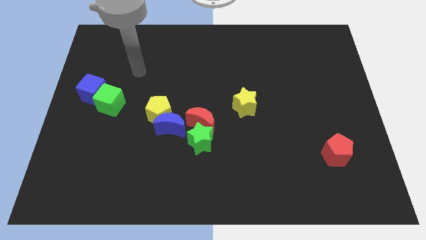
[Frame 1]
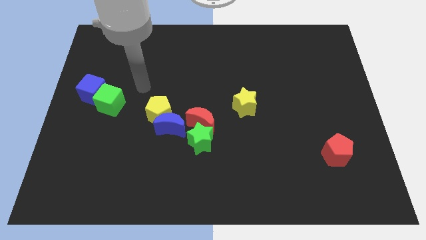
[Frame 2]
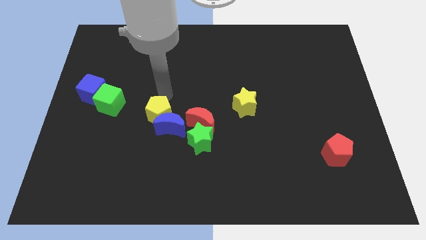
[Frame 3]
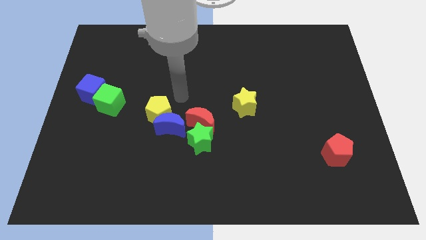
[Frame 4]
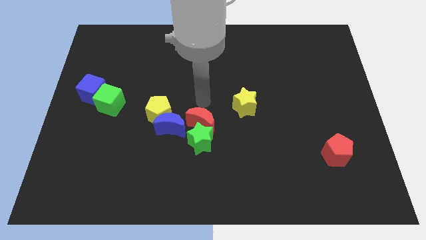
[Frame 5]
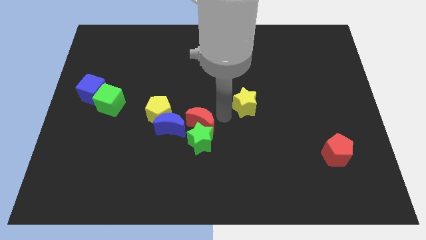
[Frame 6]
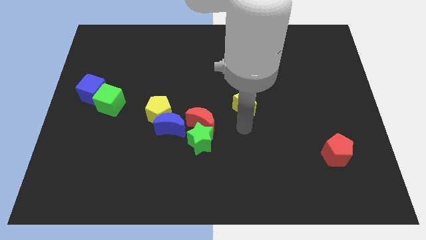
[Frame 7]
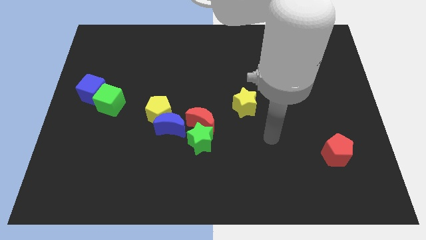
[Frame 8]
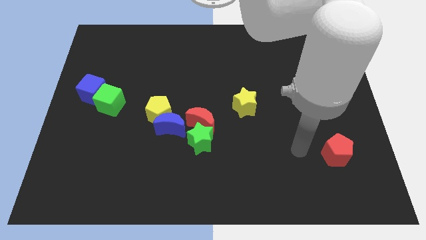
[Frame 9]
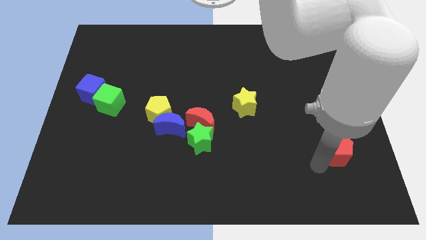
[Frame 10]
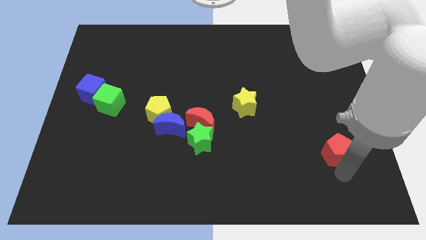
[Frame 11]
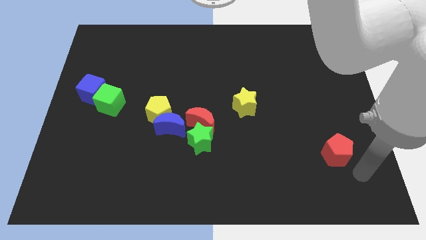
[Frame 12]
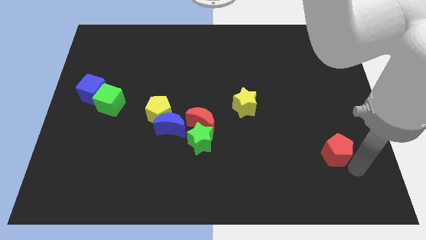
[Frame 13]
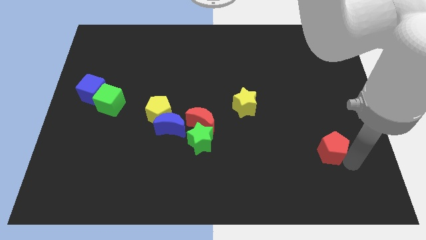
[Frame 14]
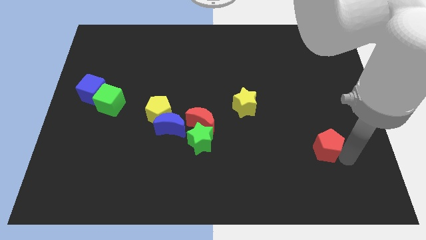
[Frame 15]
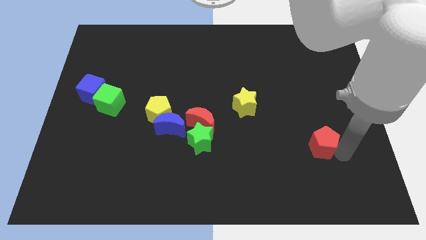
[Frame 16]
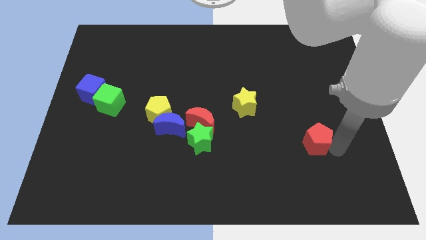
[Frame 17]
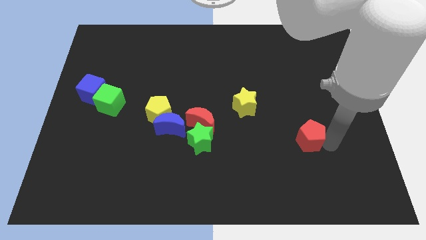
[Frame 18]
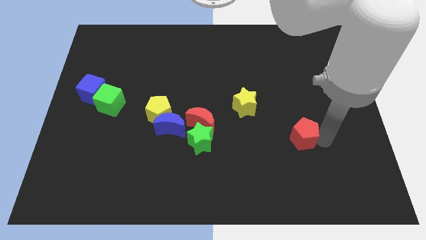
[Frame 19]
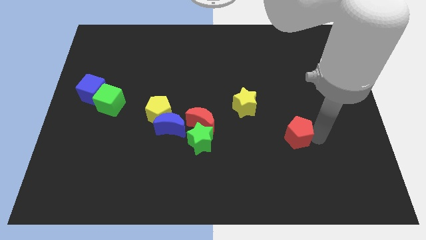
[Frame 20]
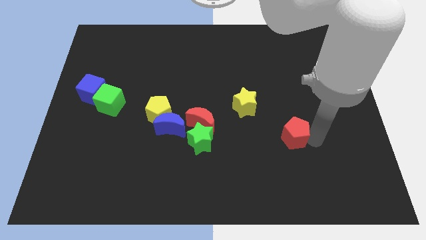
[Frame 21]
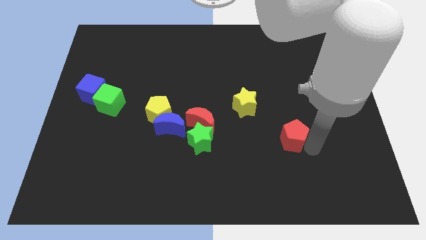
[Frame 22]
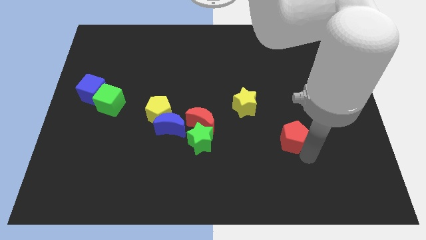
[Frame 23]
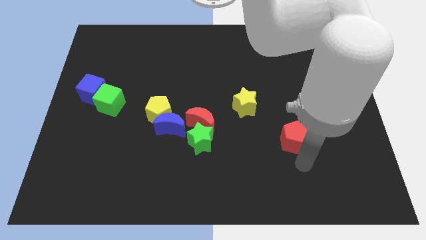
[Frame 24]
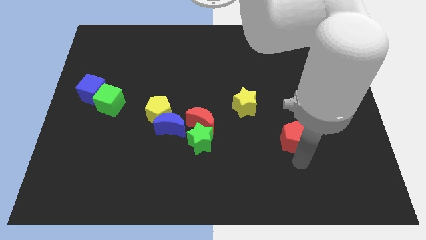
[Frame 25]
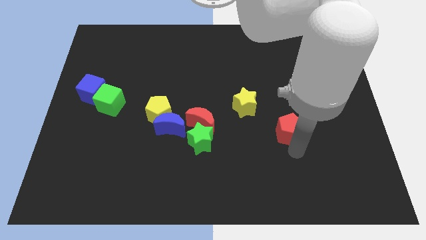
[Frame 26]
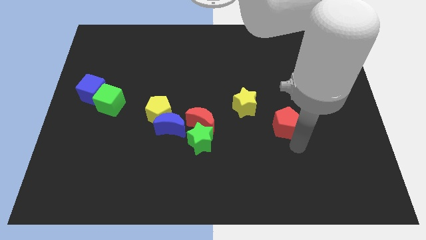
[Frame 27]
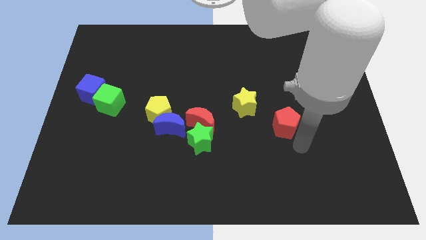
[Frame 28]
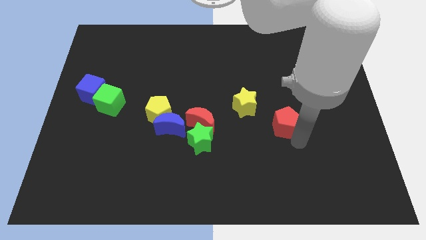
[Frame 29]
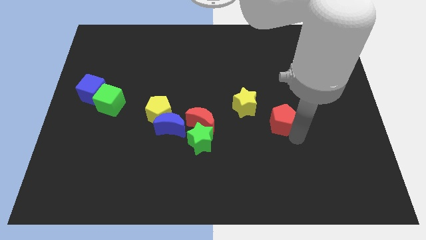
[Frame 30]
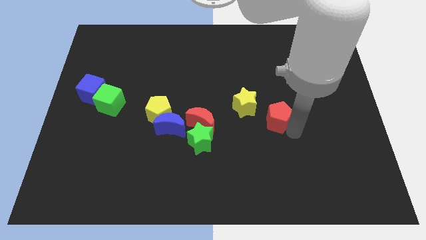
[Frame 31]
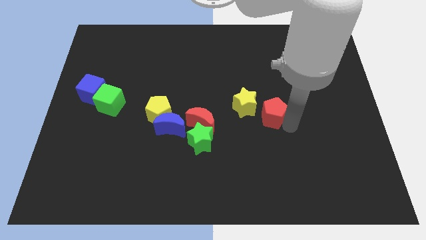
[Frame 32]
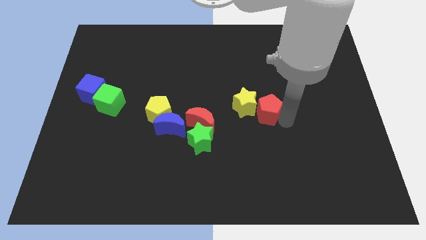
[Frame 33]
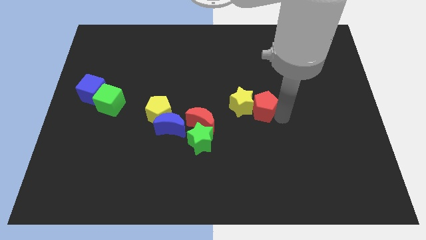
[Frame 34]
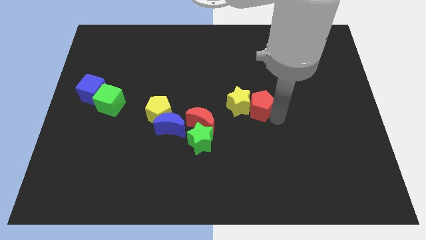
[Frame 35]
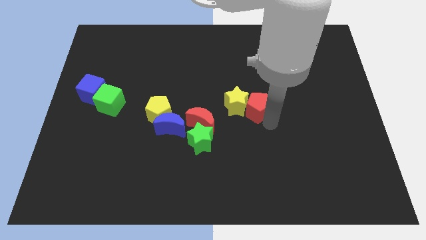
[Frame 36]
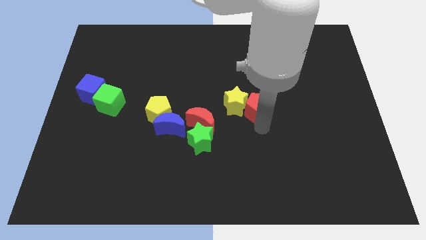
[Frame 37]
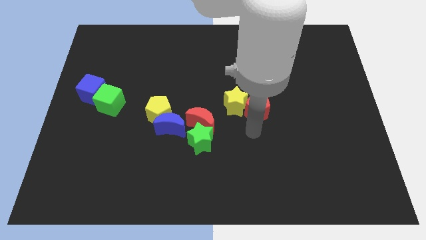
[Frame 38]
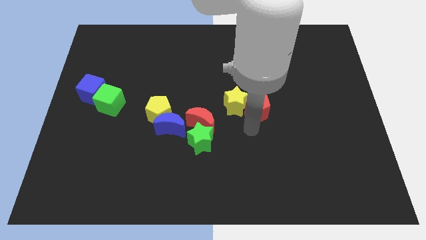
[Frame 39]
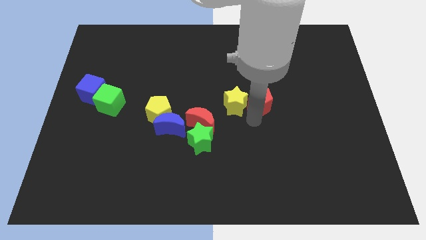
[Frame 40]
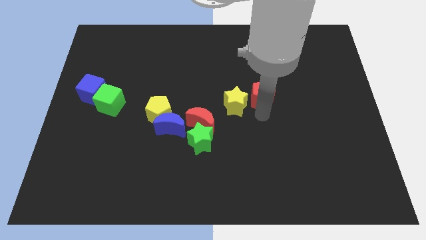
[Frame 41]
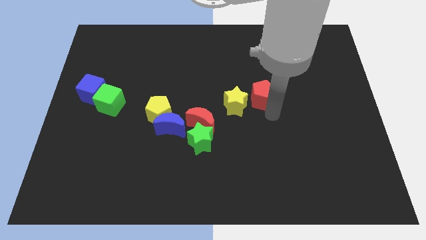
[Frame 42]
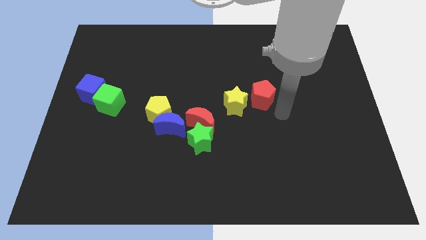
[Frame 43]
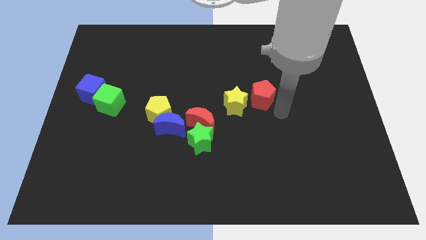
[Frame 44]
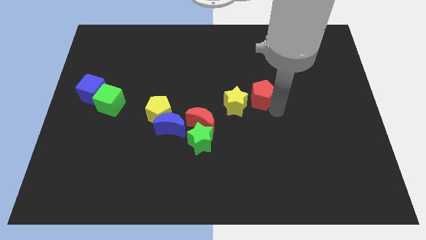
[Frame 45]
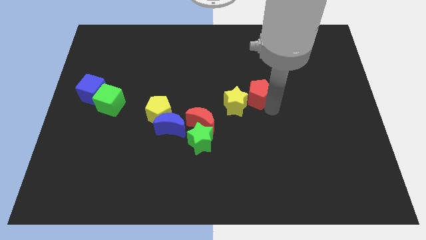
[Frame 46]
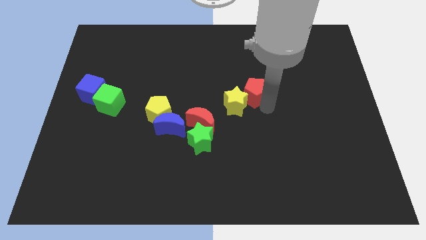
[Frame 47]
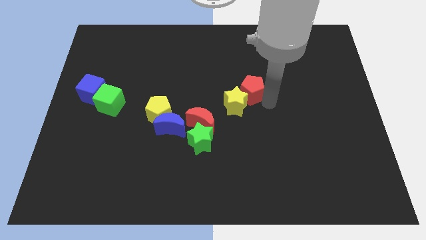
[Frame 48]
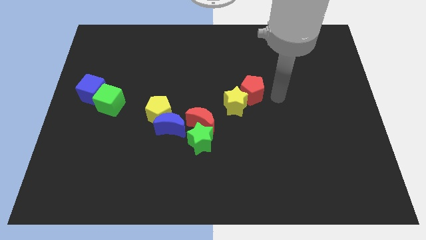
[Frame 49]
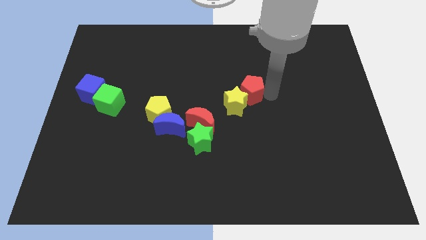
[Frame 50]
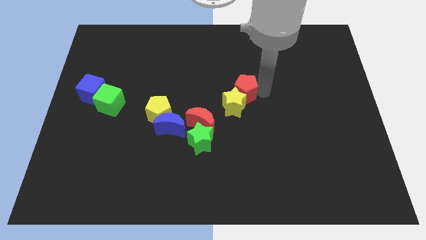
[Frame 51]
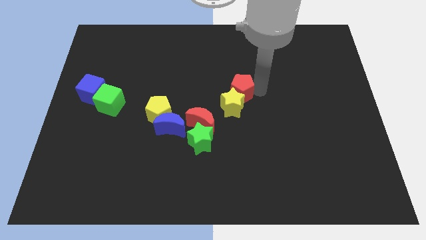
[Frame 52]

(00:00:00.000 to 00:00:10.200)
put the red pentagon to the top left side of the yellow star

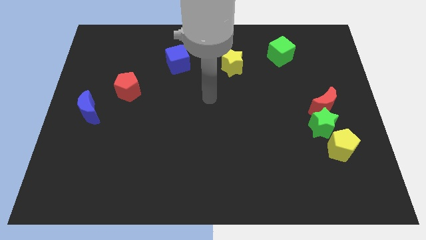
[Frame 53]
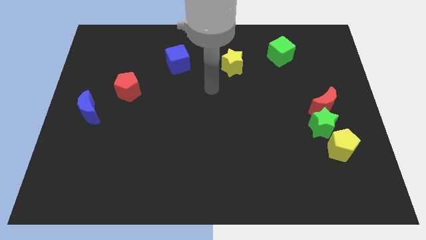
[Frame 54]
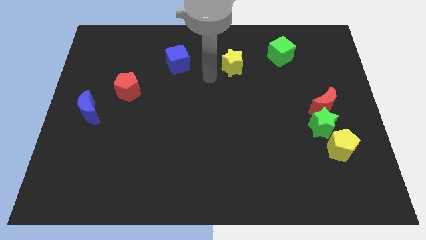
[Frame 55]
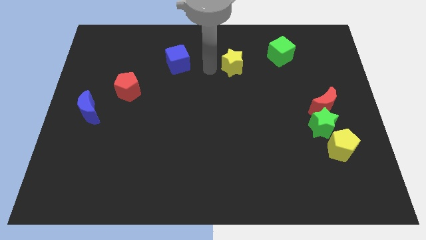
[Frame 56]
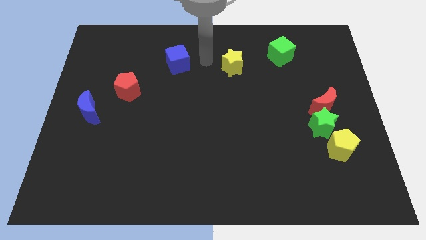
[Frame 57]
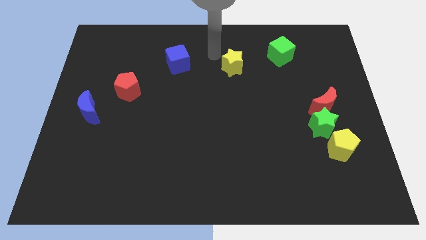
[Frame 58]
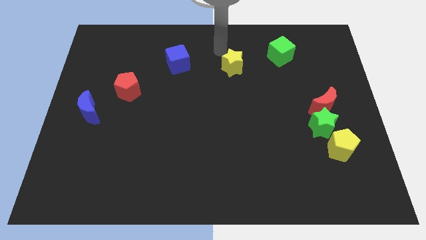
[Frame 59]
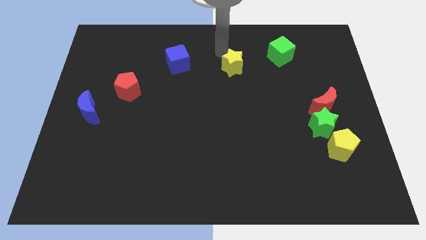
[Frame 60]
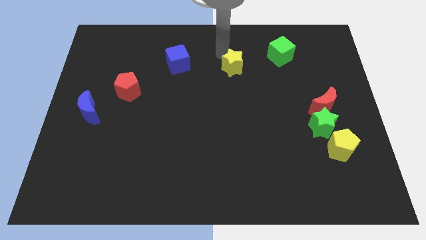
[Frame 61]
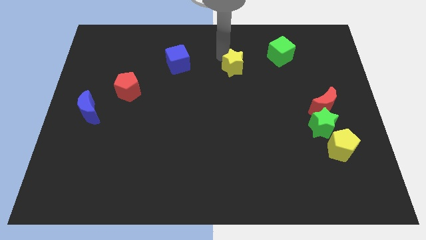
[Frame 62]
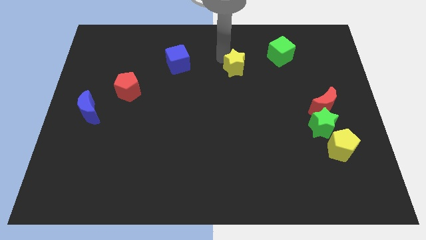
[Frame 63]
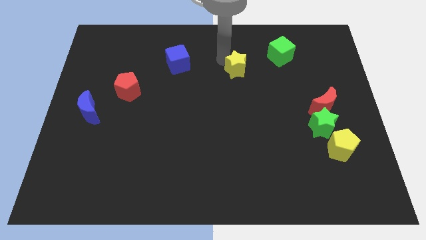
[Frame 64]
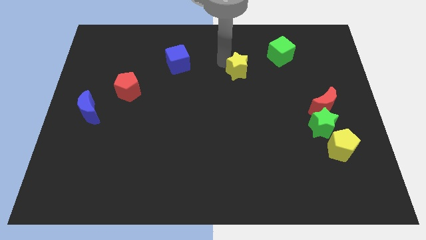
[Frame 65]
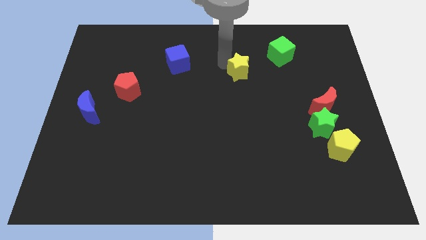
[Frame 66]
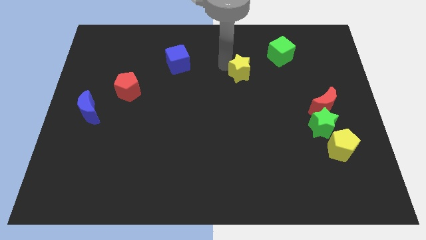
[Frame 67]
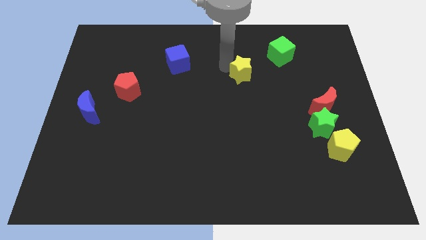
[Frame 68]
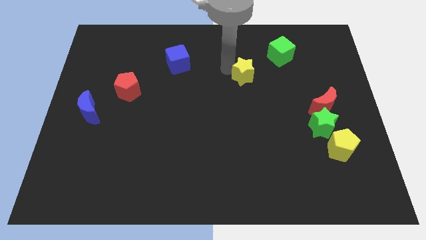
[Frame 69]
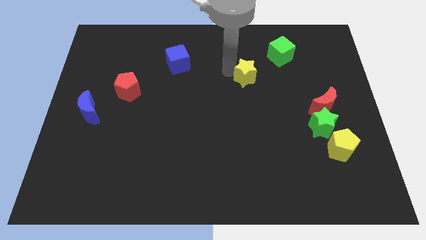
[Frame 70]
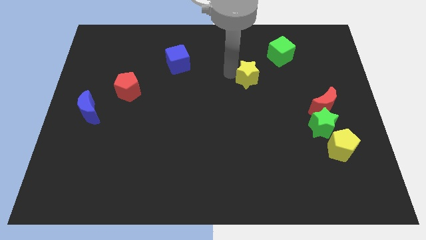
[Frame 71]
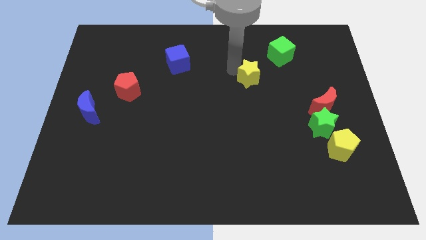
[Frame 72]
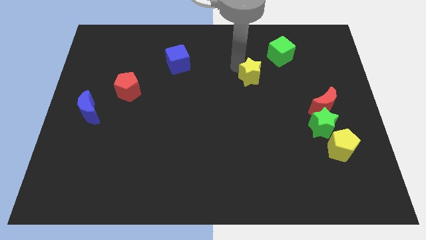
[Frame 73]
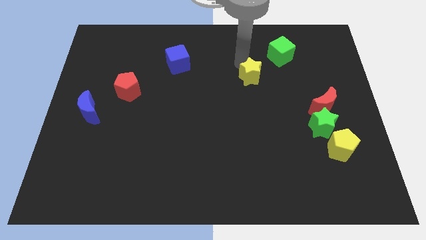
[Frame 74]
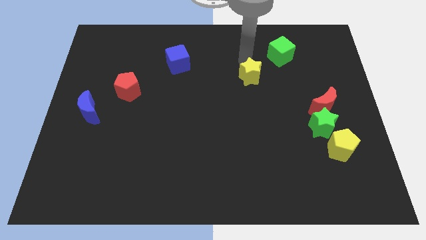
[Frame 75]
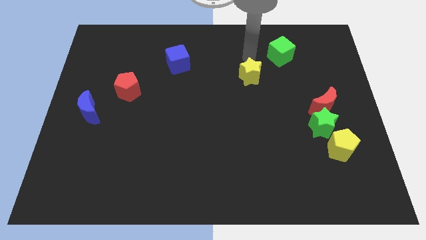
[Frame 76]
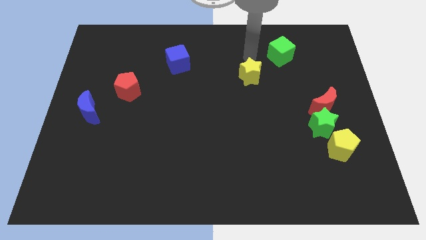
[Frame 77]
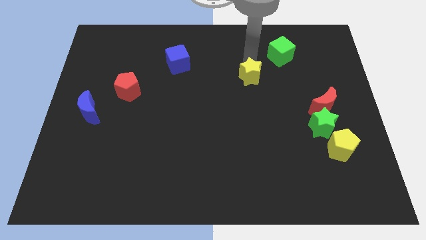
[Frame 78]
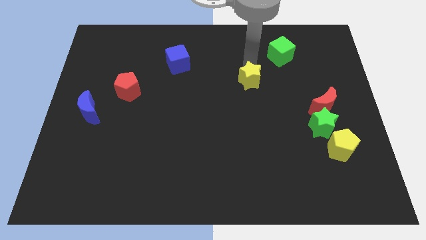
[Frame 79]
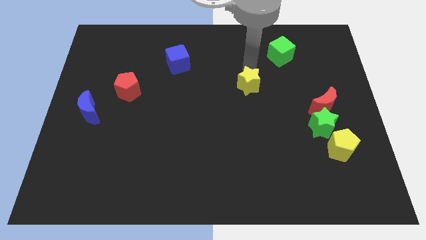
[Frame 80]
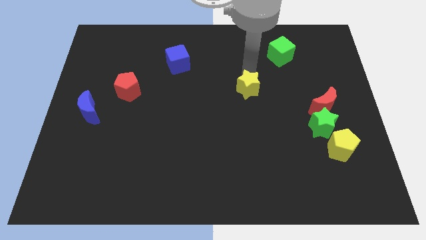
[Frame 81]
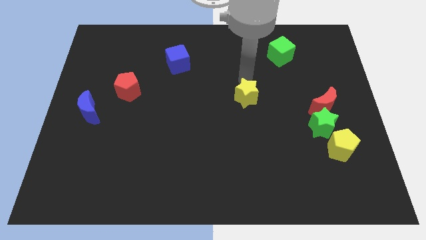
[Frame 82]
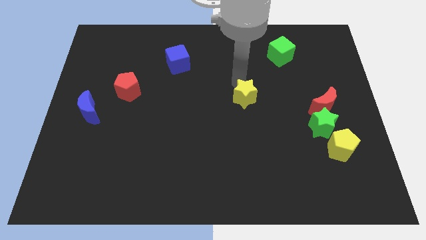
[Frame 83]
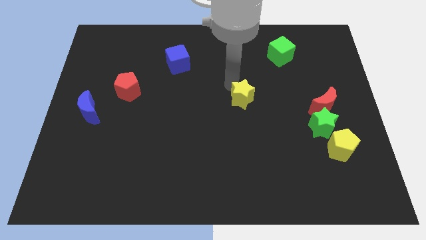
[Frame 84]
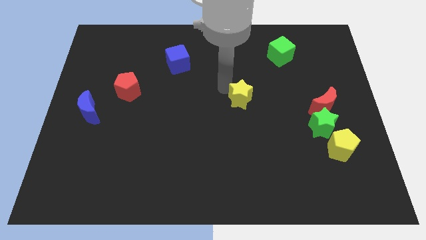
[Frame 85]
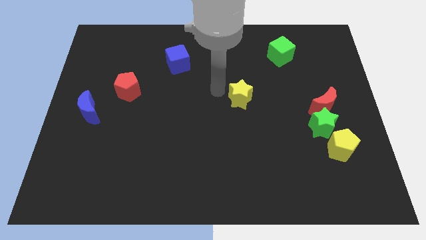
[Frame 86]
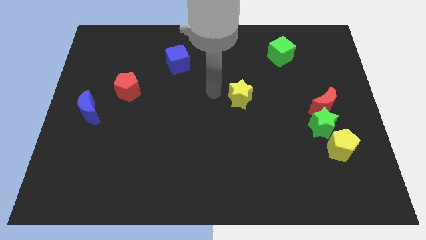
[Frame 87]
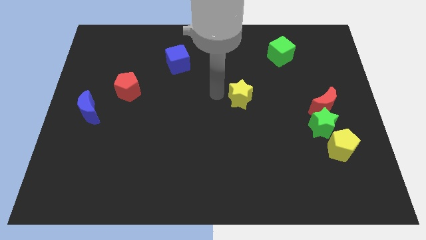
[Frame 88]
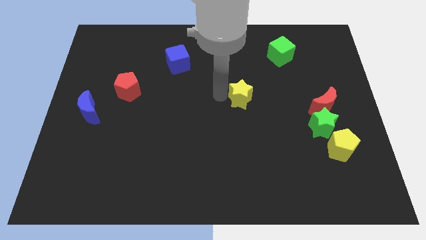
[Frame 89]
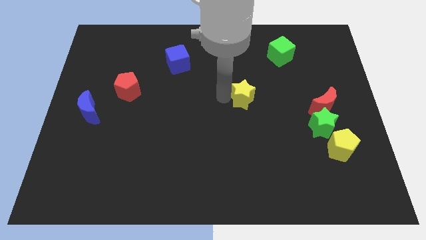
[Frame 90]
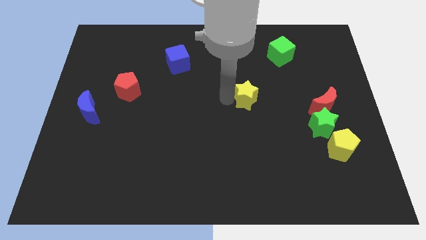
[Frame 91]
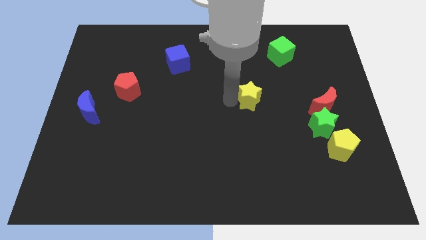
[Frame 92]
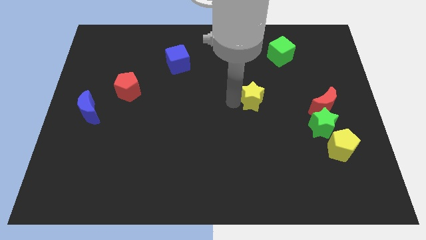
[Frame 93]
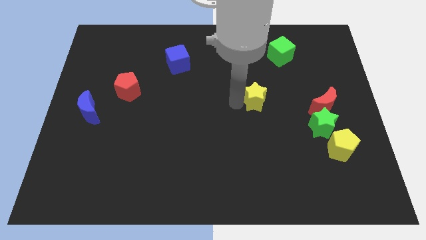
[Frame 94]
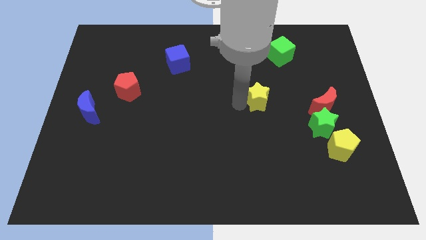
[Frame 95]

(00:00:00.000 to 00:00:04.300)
push the yellow star just left of the red moon
